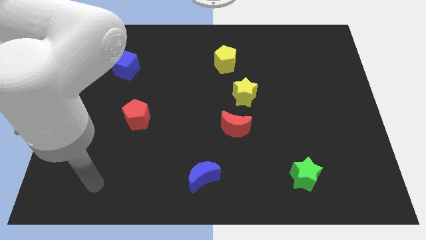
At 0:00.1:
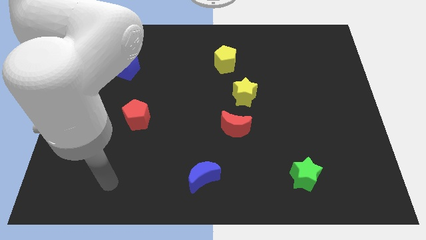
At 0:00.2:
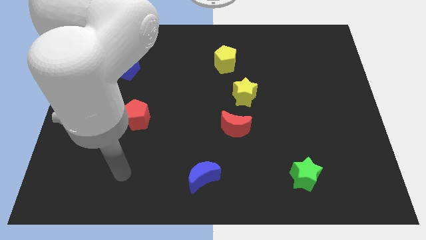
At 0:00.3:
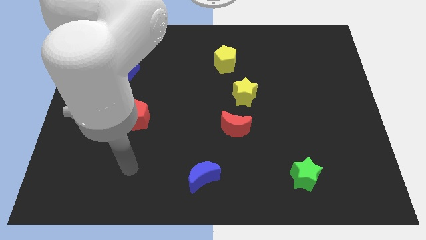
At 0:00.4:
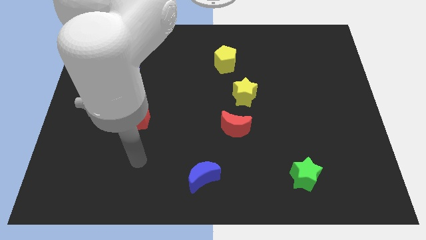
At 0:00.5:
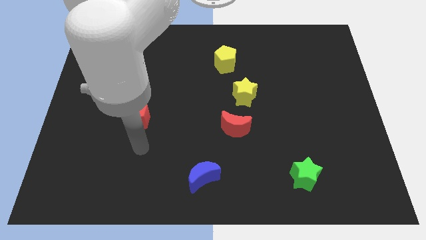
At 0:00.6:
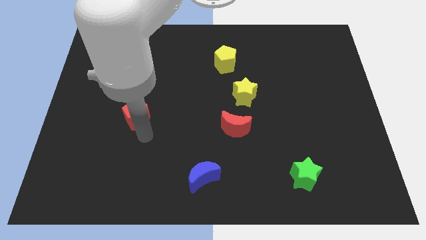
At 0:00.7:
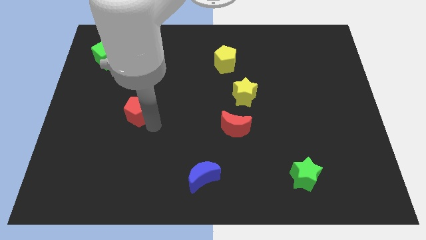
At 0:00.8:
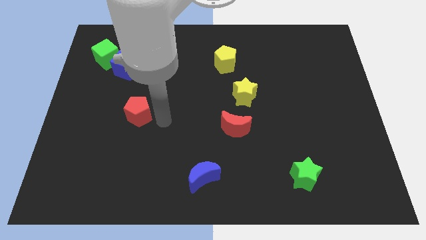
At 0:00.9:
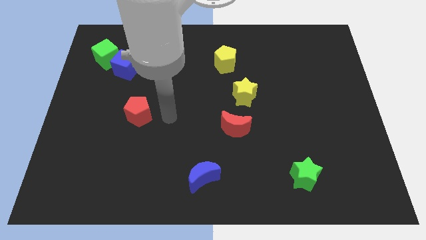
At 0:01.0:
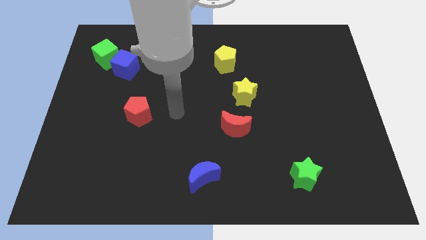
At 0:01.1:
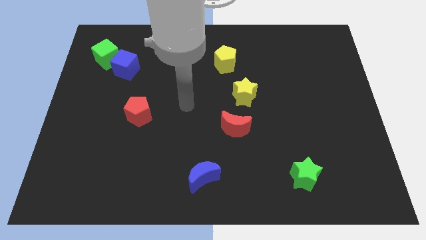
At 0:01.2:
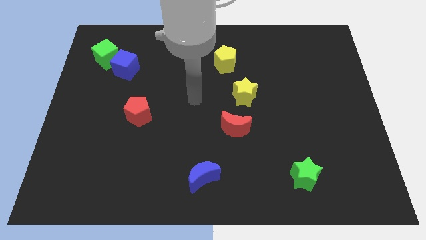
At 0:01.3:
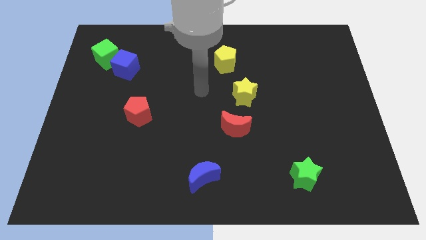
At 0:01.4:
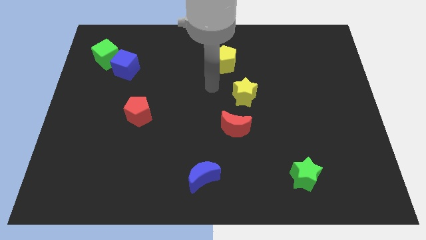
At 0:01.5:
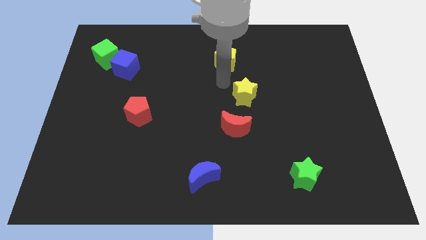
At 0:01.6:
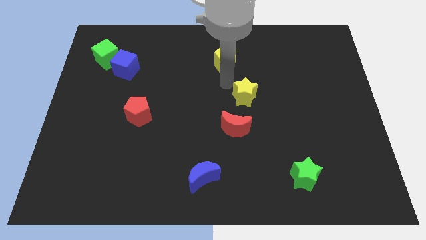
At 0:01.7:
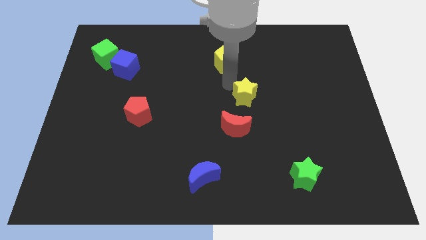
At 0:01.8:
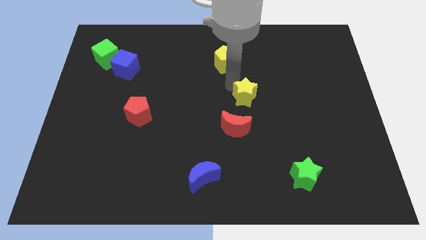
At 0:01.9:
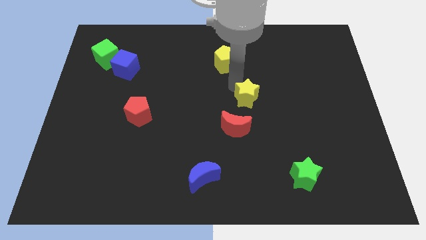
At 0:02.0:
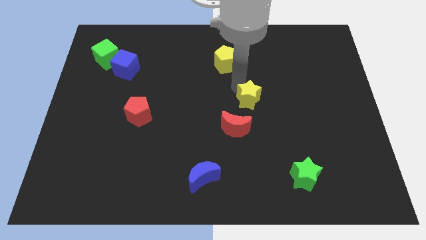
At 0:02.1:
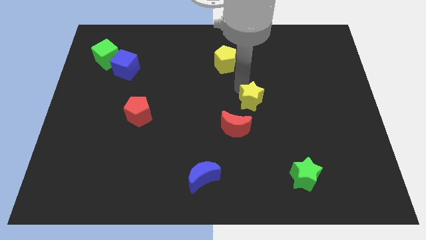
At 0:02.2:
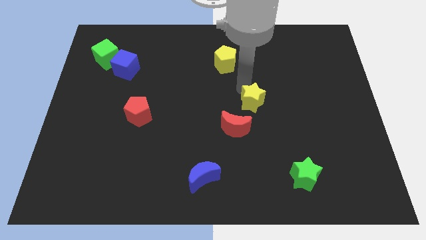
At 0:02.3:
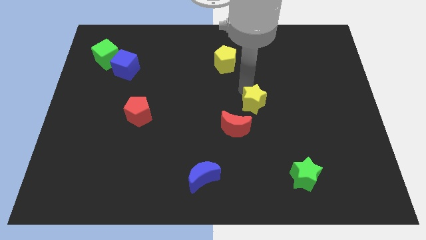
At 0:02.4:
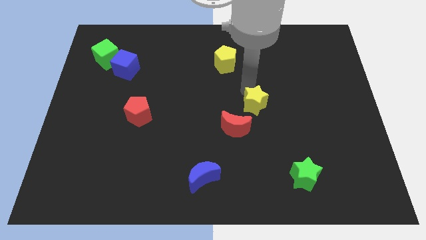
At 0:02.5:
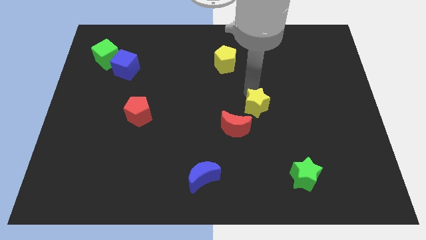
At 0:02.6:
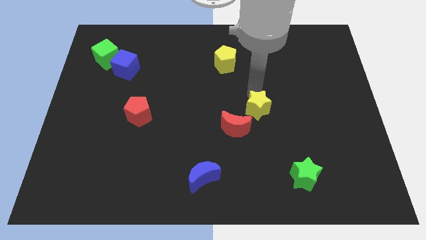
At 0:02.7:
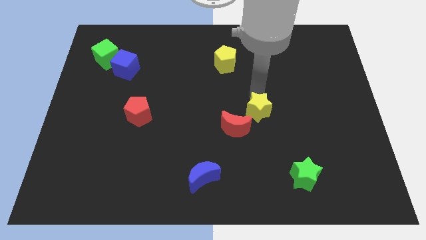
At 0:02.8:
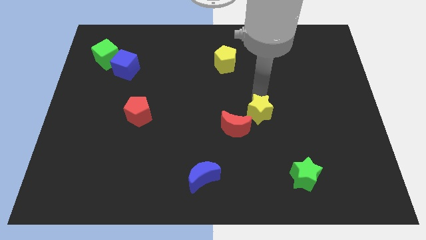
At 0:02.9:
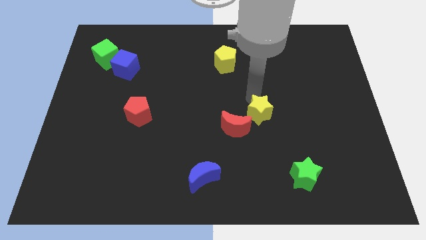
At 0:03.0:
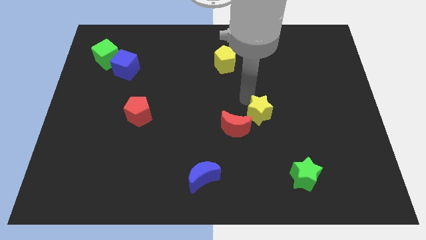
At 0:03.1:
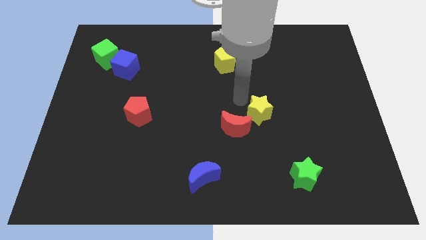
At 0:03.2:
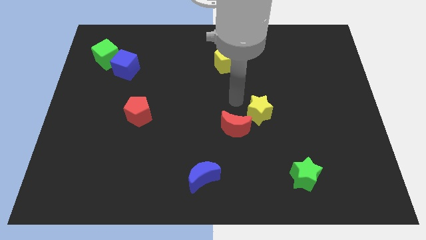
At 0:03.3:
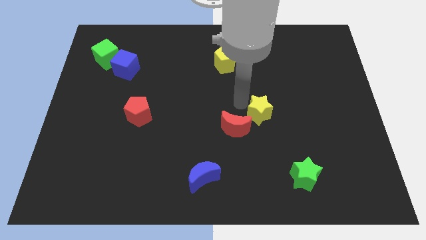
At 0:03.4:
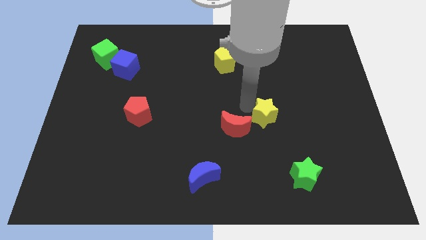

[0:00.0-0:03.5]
slide the yellow star slightly down and right

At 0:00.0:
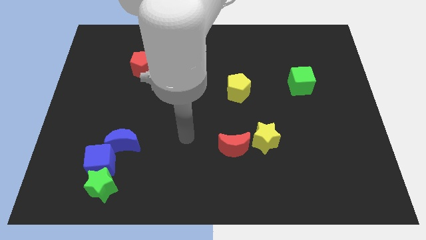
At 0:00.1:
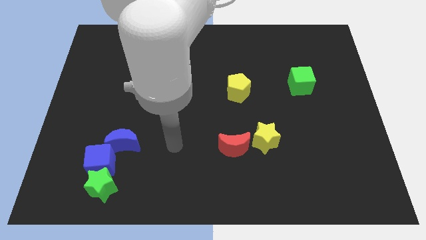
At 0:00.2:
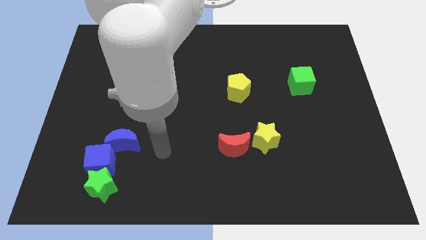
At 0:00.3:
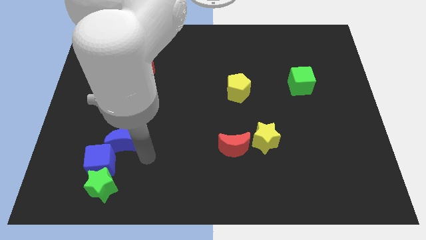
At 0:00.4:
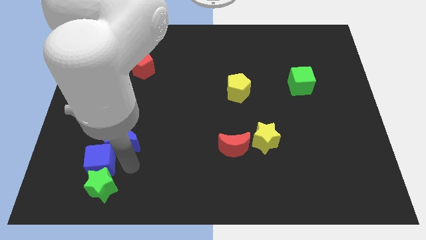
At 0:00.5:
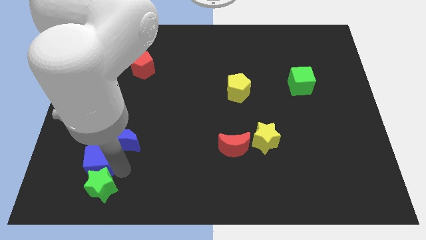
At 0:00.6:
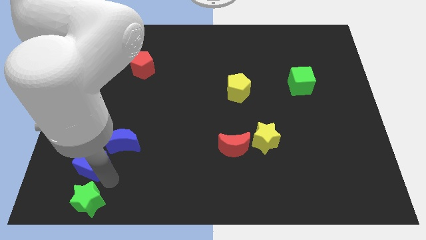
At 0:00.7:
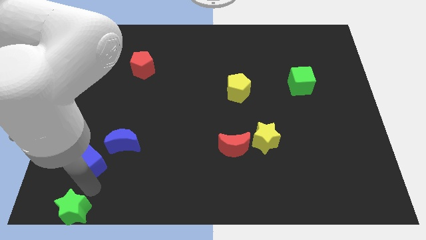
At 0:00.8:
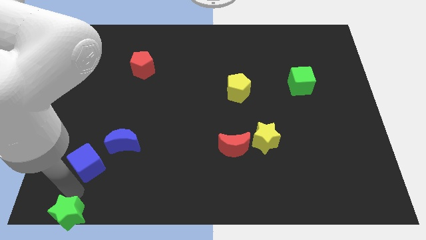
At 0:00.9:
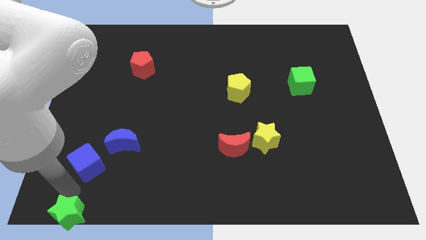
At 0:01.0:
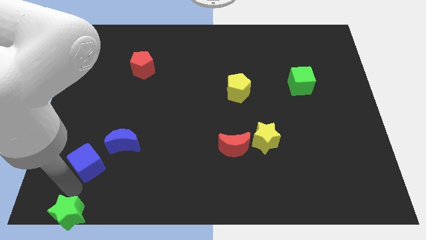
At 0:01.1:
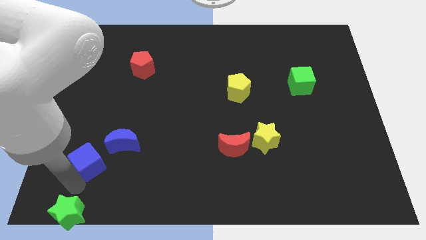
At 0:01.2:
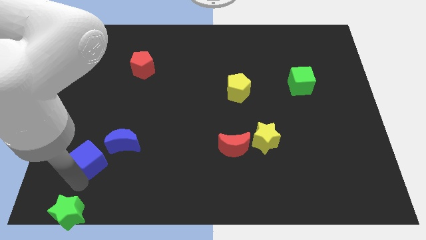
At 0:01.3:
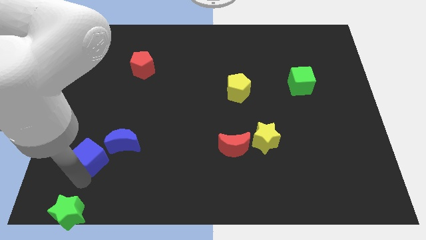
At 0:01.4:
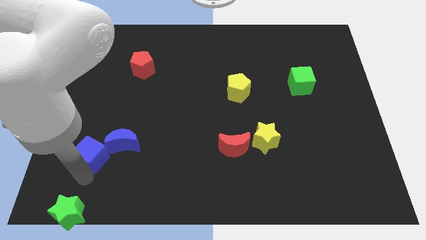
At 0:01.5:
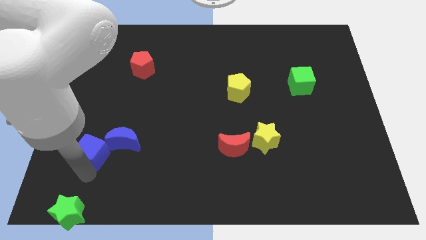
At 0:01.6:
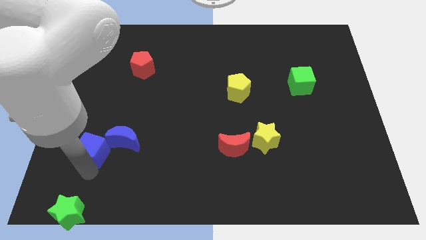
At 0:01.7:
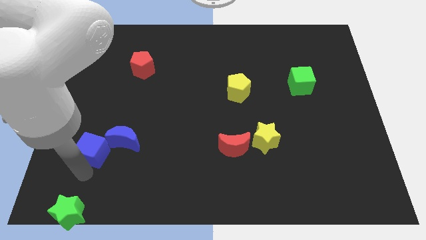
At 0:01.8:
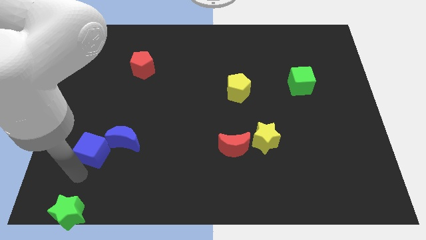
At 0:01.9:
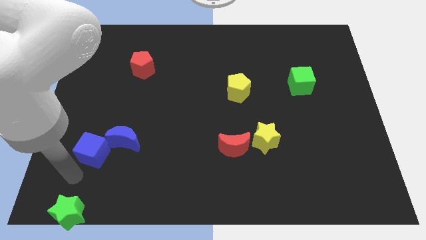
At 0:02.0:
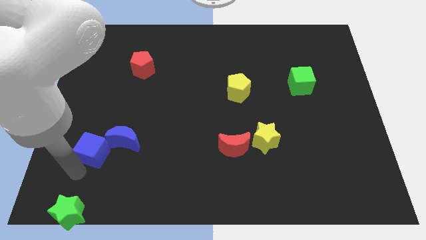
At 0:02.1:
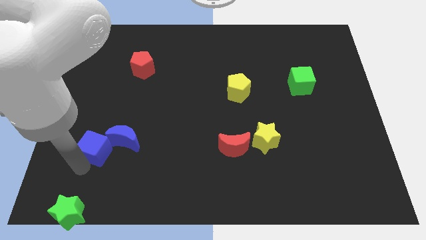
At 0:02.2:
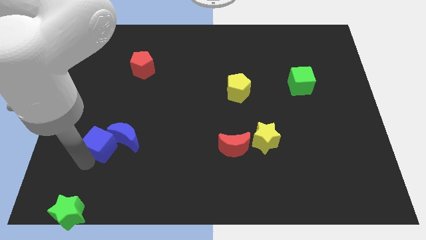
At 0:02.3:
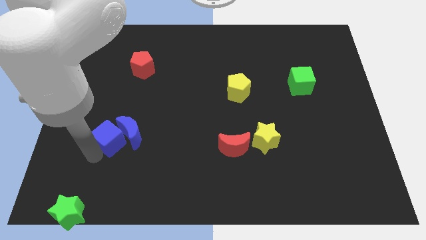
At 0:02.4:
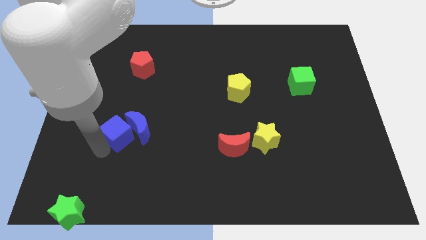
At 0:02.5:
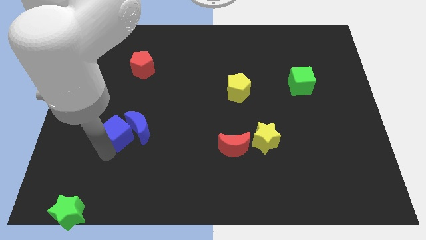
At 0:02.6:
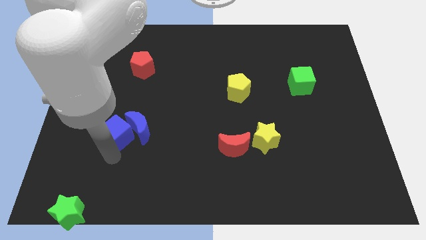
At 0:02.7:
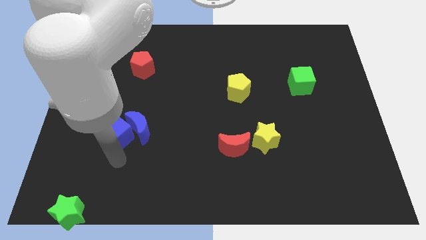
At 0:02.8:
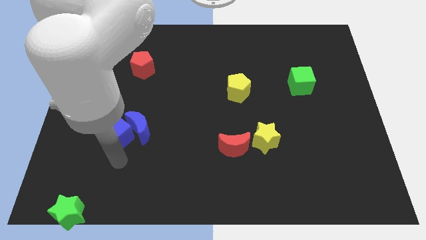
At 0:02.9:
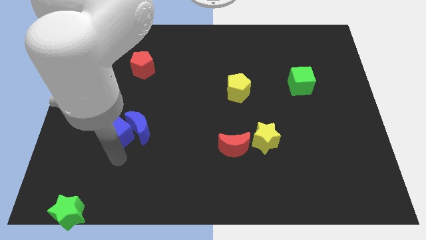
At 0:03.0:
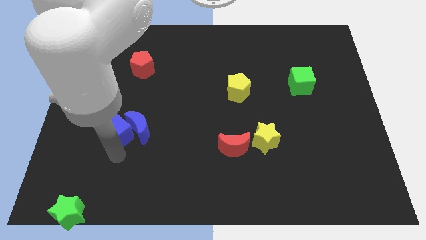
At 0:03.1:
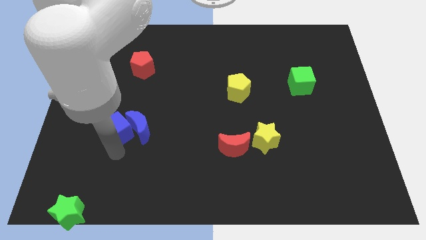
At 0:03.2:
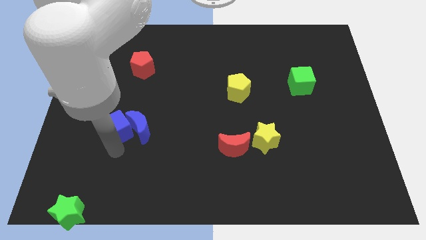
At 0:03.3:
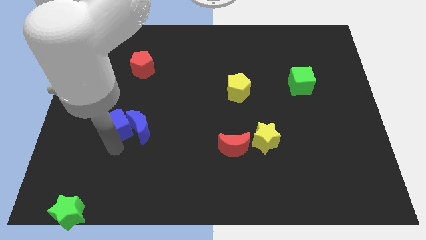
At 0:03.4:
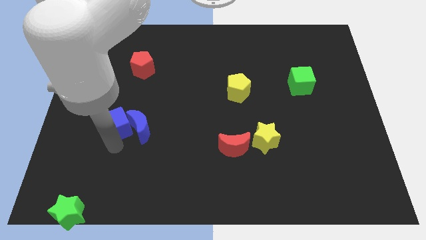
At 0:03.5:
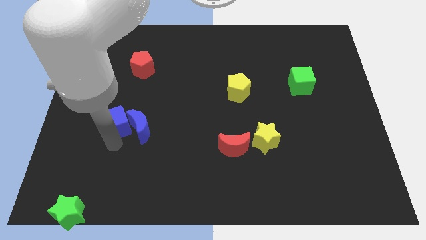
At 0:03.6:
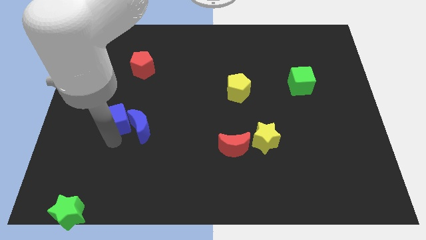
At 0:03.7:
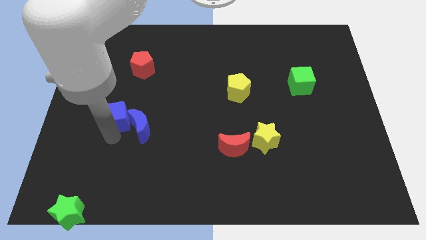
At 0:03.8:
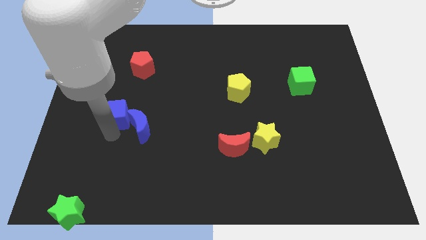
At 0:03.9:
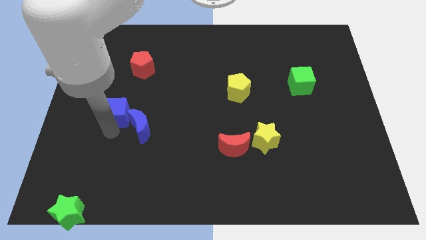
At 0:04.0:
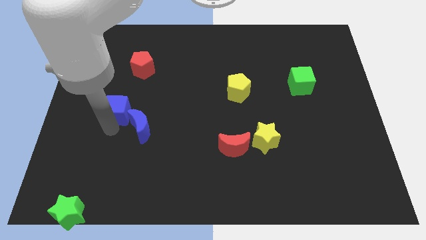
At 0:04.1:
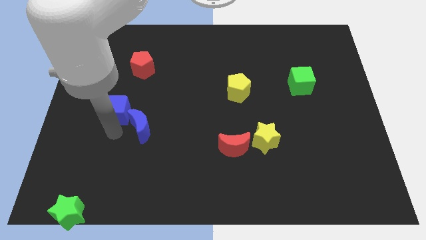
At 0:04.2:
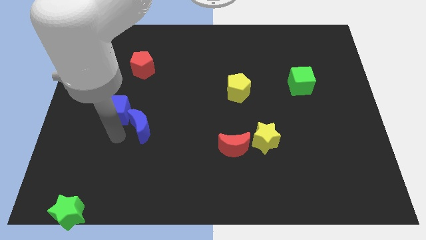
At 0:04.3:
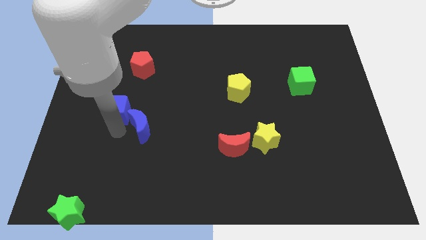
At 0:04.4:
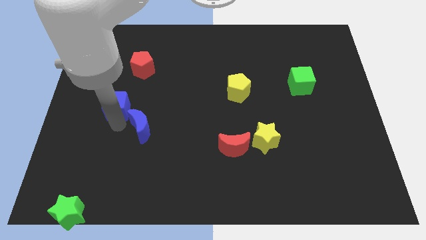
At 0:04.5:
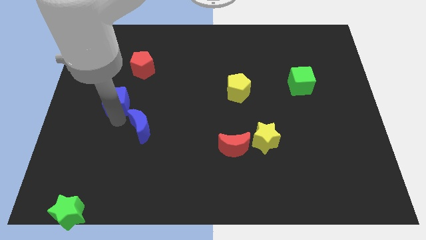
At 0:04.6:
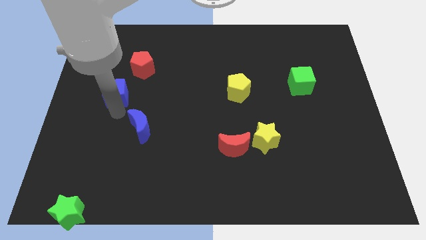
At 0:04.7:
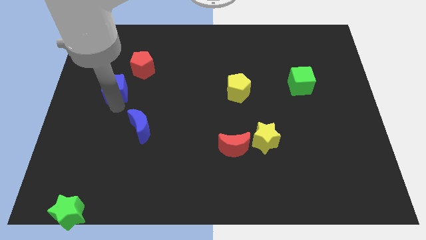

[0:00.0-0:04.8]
move the blue cube up
